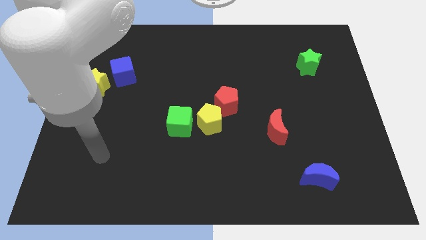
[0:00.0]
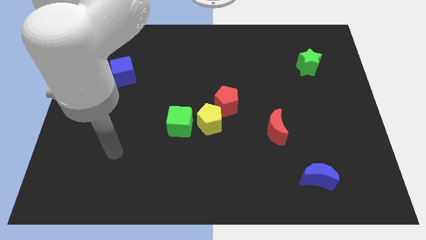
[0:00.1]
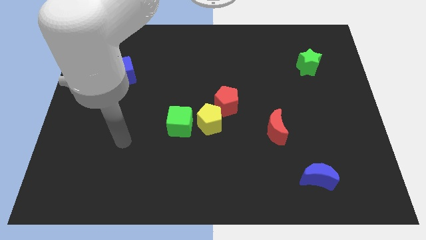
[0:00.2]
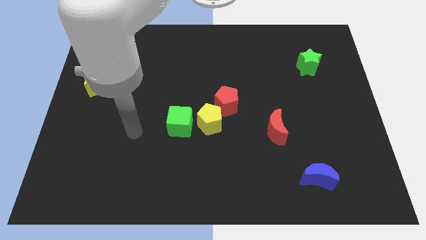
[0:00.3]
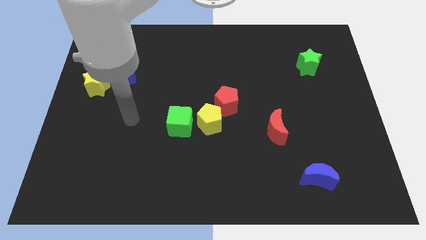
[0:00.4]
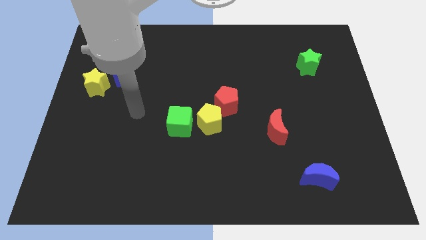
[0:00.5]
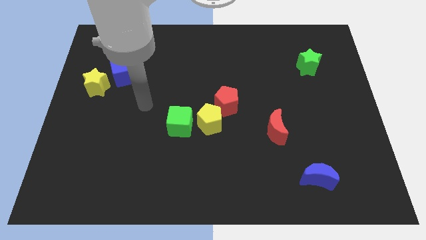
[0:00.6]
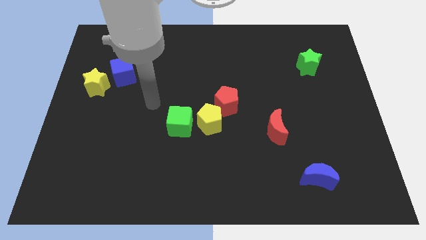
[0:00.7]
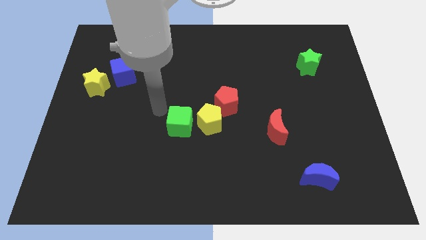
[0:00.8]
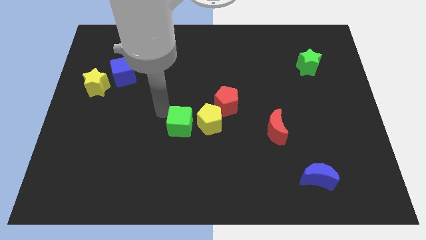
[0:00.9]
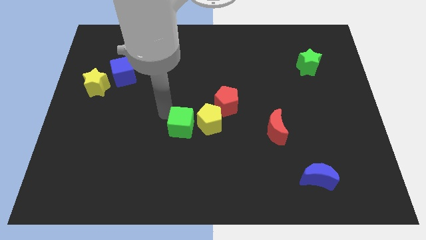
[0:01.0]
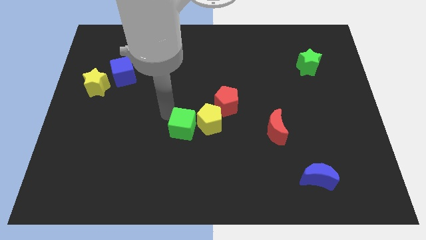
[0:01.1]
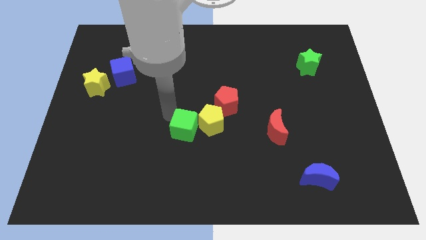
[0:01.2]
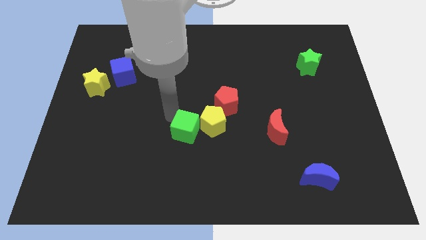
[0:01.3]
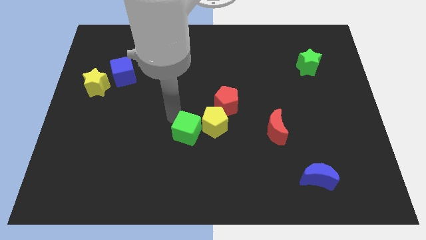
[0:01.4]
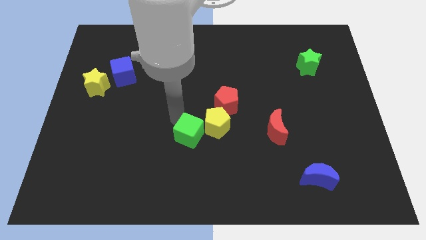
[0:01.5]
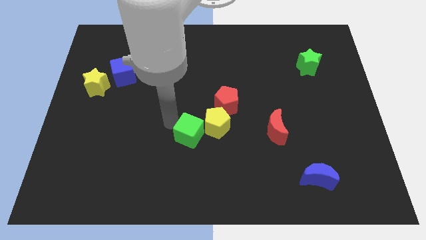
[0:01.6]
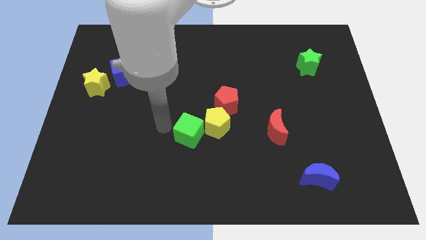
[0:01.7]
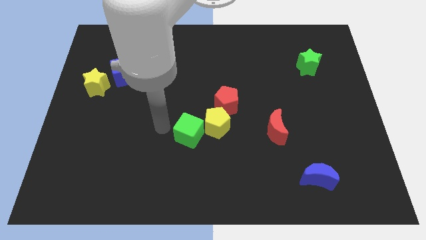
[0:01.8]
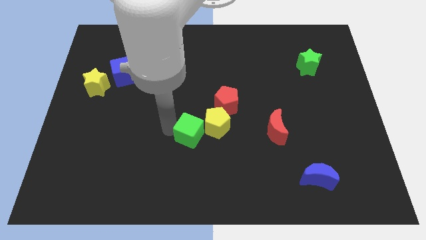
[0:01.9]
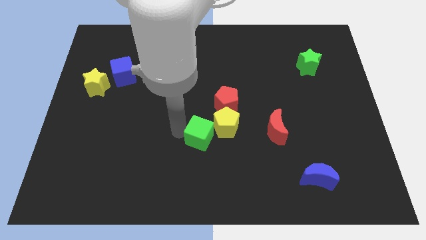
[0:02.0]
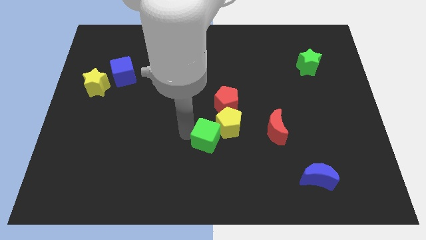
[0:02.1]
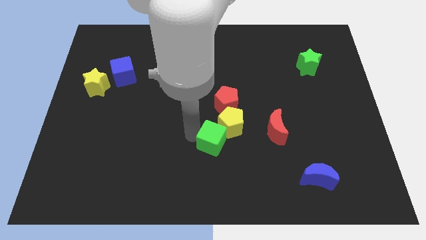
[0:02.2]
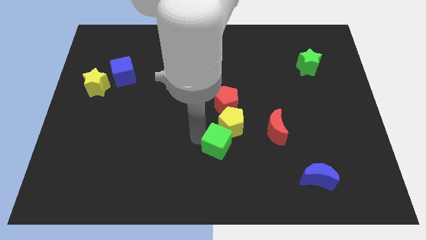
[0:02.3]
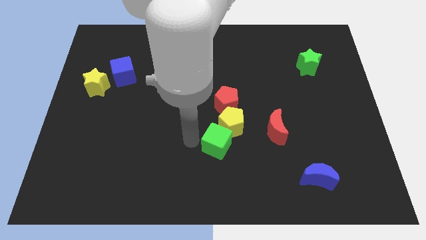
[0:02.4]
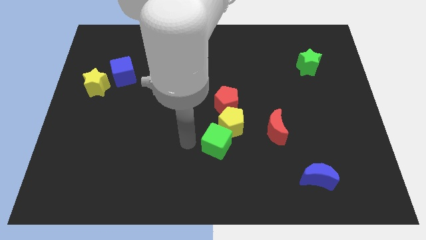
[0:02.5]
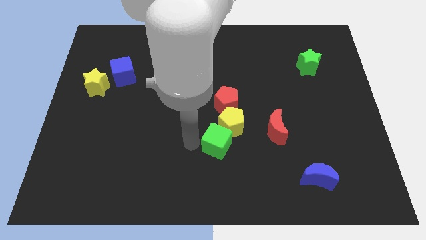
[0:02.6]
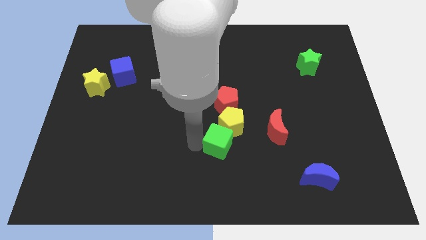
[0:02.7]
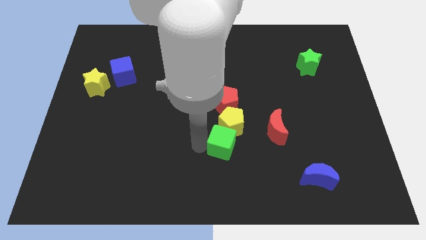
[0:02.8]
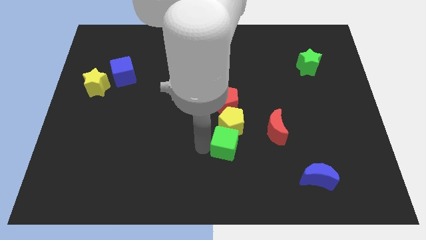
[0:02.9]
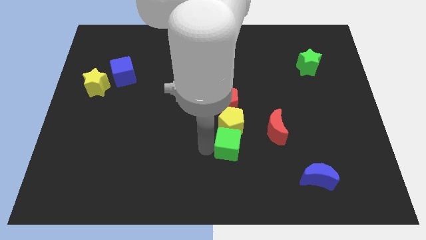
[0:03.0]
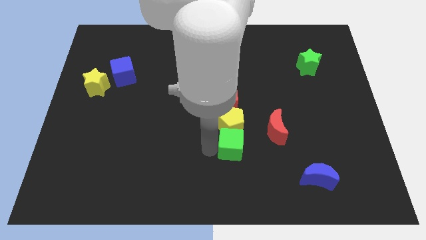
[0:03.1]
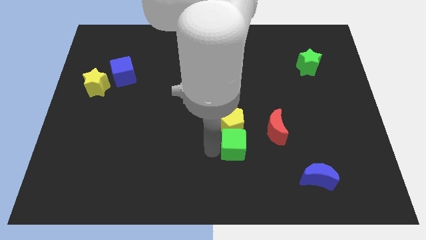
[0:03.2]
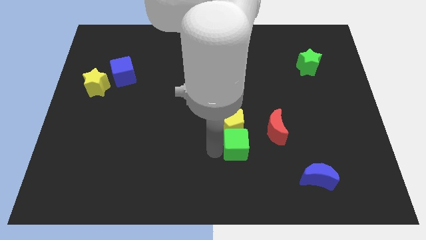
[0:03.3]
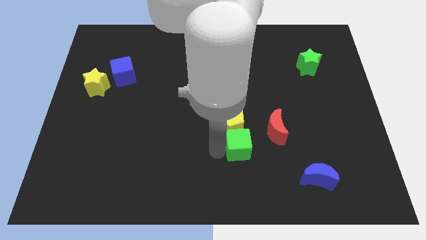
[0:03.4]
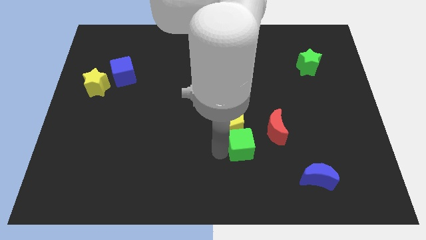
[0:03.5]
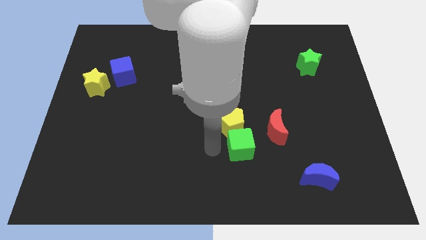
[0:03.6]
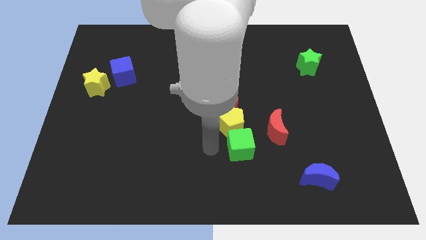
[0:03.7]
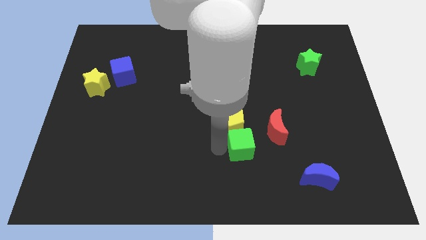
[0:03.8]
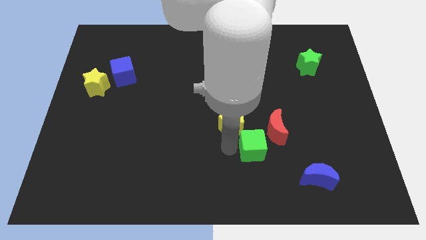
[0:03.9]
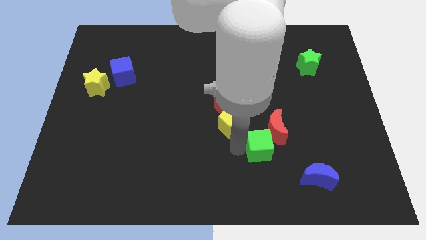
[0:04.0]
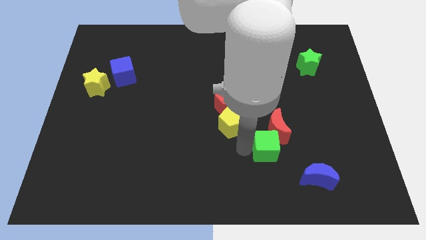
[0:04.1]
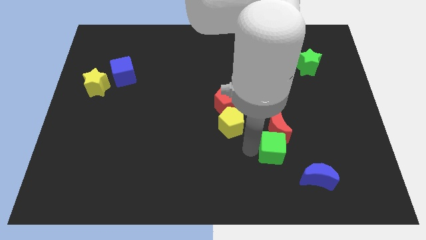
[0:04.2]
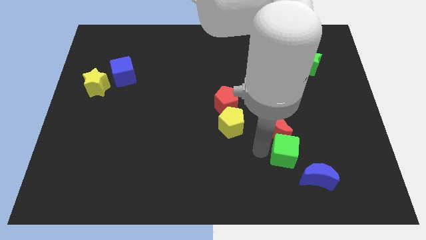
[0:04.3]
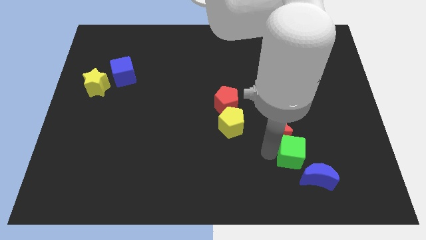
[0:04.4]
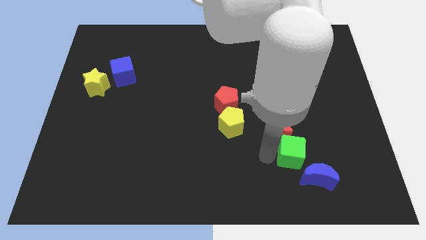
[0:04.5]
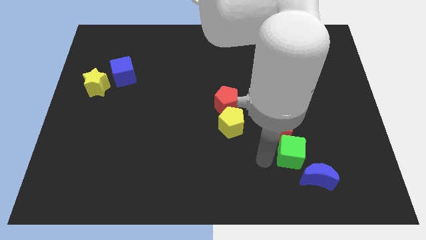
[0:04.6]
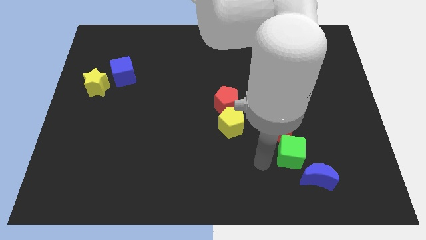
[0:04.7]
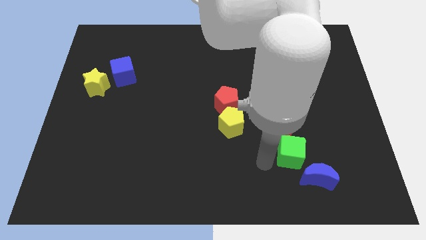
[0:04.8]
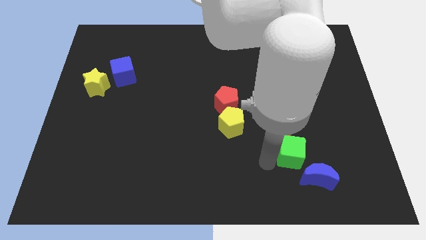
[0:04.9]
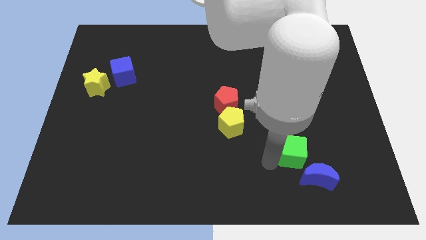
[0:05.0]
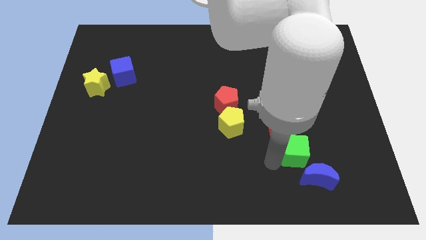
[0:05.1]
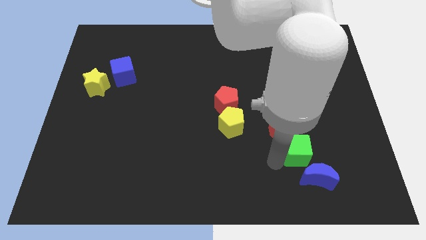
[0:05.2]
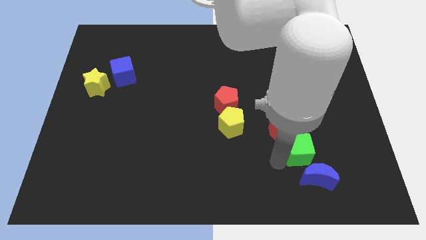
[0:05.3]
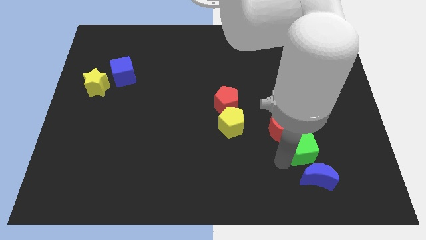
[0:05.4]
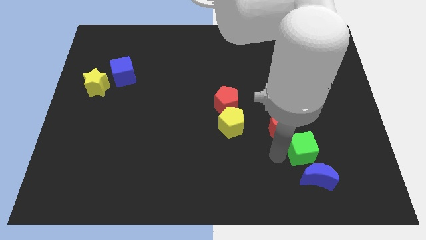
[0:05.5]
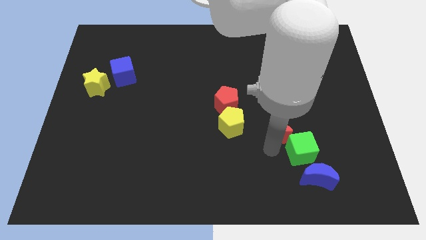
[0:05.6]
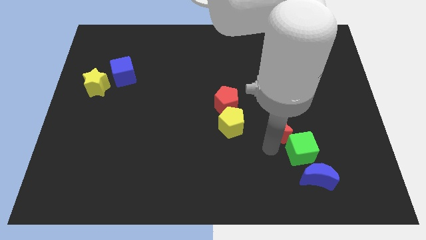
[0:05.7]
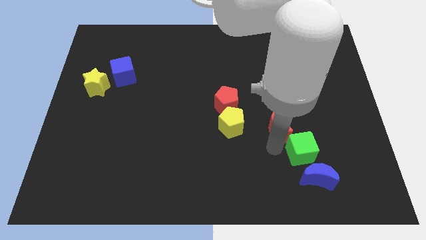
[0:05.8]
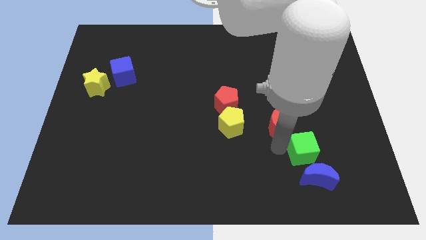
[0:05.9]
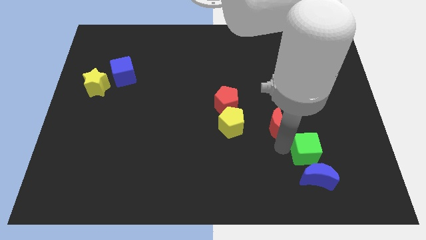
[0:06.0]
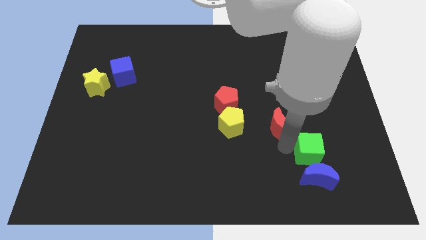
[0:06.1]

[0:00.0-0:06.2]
push the green cube to the top right side of the blue moon

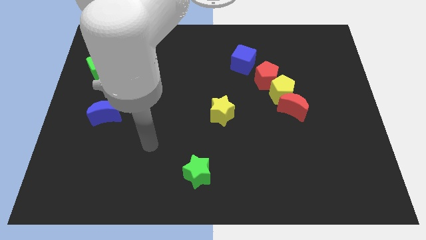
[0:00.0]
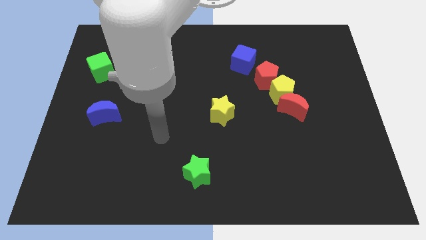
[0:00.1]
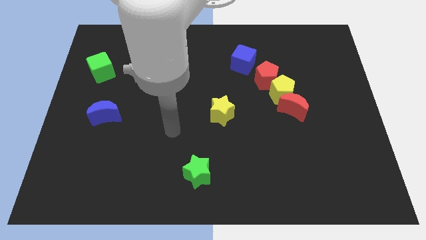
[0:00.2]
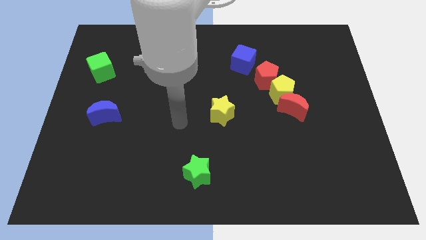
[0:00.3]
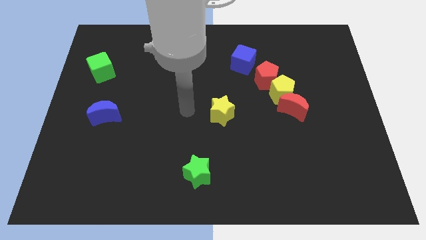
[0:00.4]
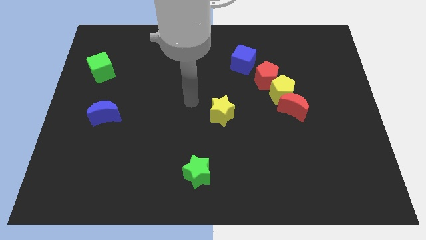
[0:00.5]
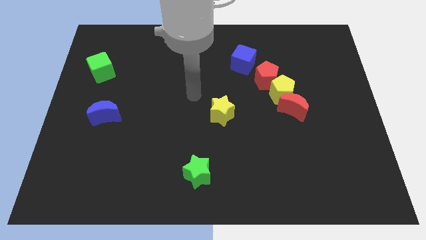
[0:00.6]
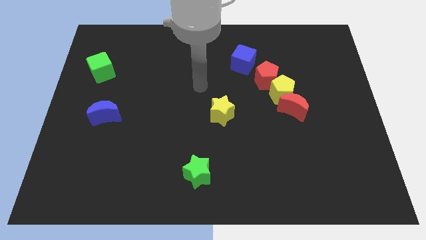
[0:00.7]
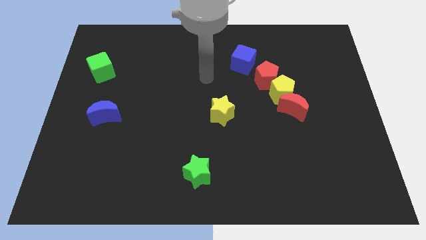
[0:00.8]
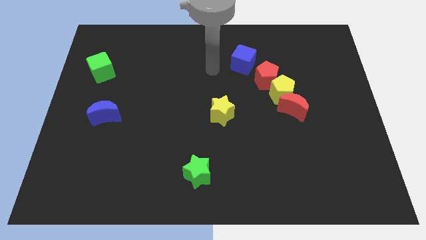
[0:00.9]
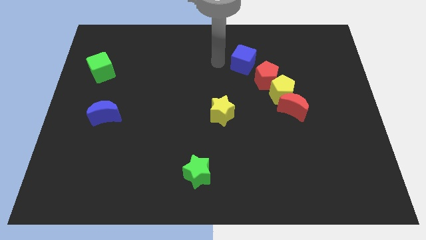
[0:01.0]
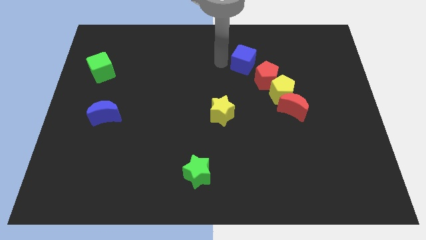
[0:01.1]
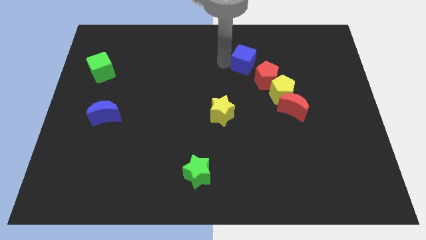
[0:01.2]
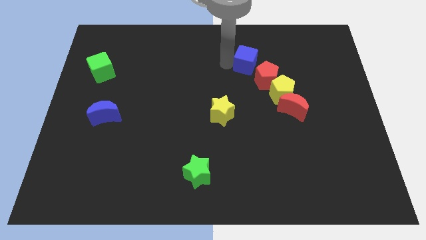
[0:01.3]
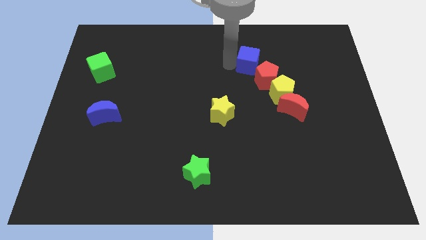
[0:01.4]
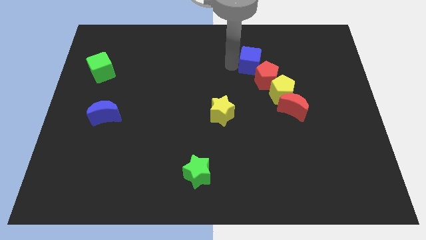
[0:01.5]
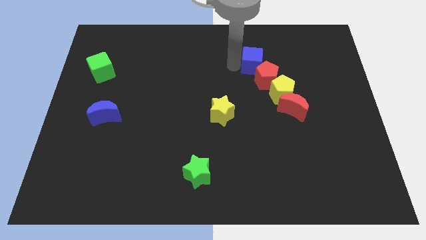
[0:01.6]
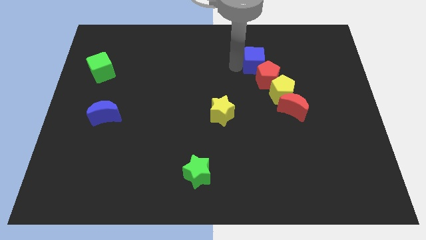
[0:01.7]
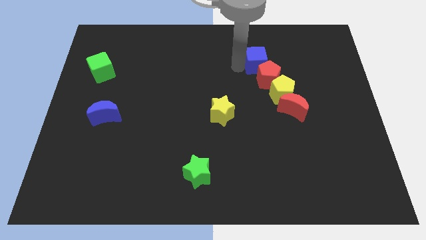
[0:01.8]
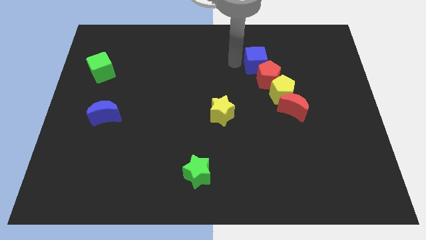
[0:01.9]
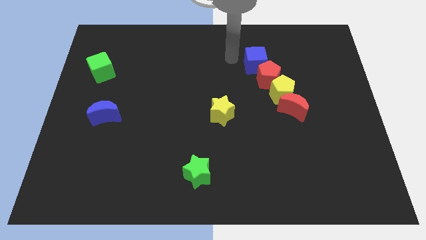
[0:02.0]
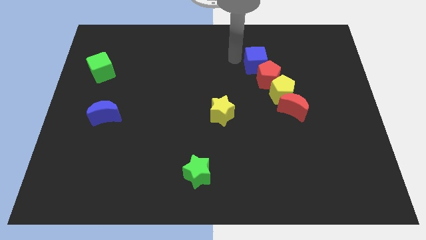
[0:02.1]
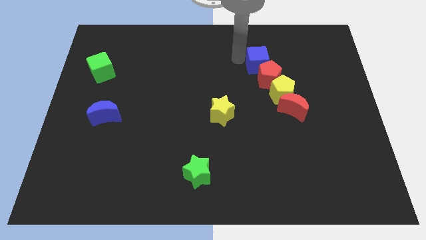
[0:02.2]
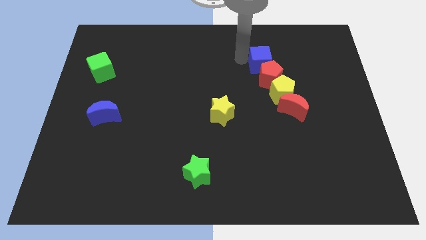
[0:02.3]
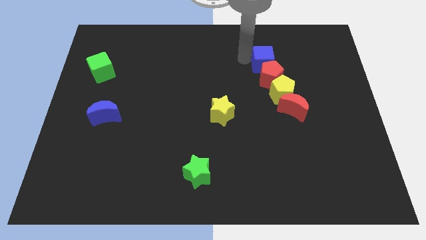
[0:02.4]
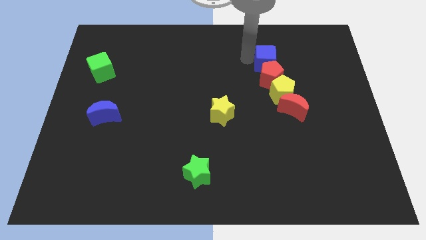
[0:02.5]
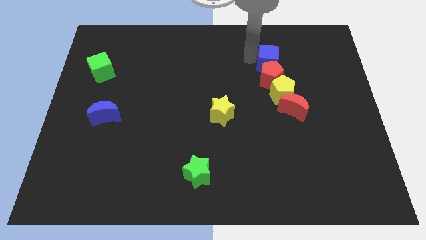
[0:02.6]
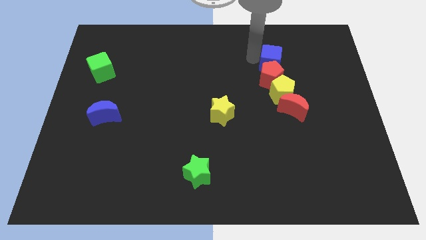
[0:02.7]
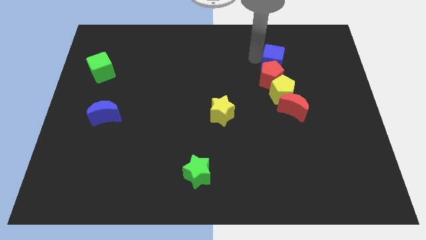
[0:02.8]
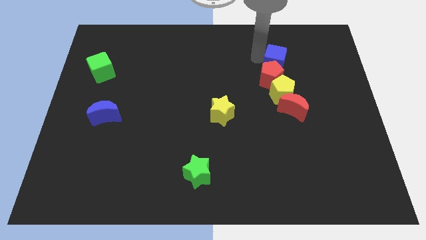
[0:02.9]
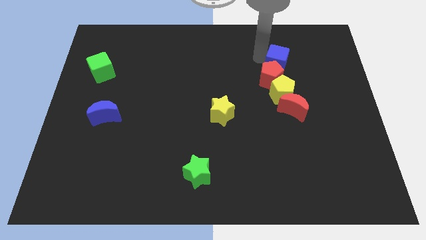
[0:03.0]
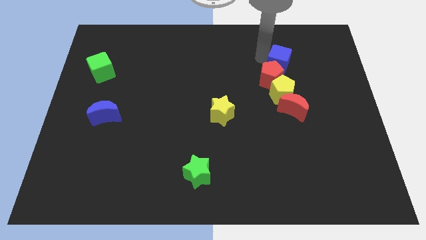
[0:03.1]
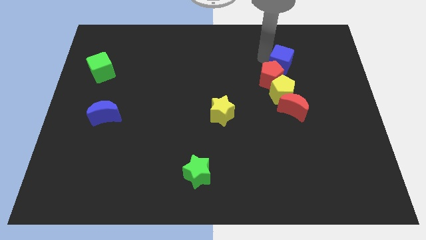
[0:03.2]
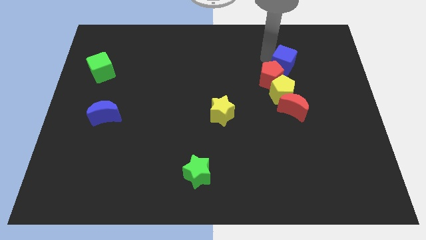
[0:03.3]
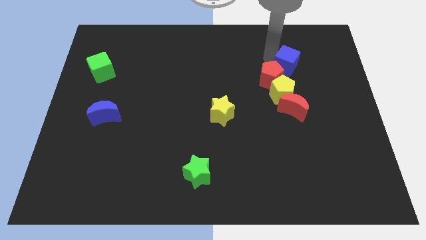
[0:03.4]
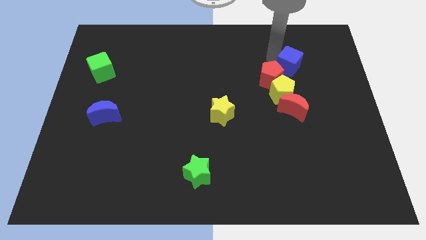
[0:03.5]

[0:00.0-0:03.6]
slide the blue cube to the top right of the yellow pentagon
